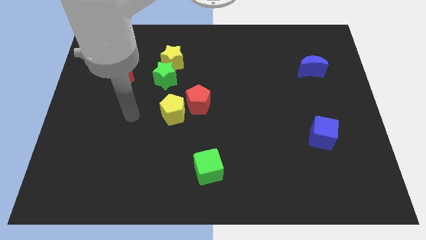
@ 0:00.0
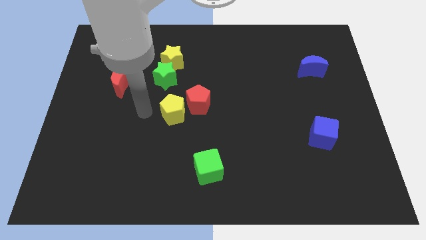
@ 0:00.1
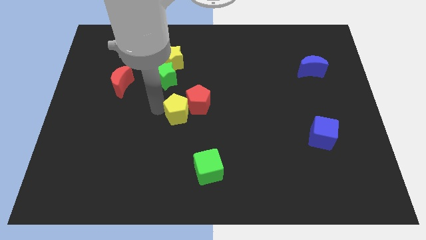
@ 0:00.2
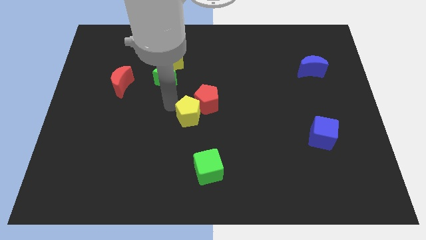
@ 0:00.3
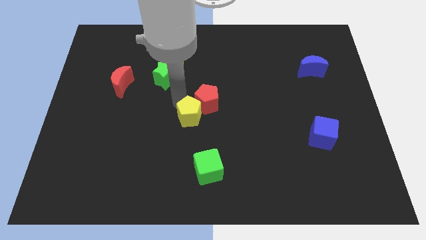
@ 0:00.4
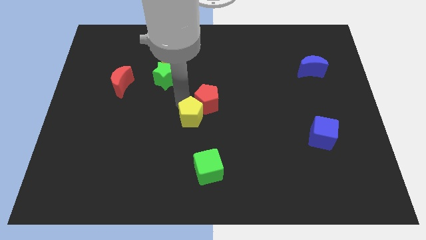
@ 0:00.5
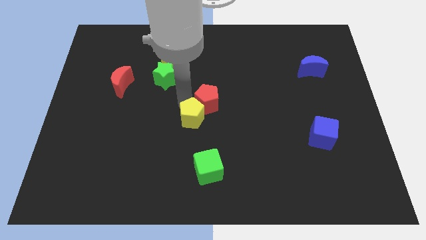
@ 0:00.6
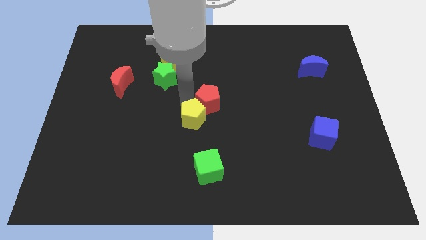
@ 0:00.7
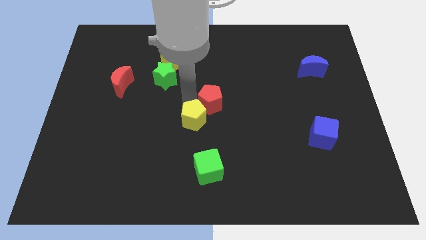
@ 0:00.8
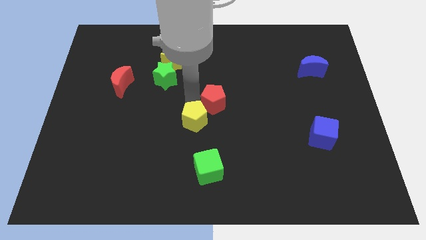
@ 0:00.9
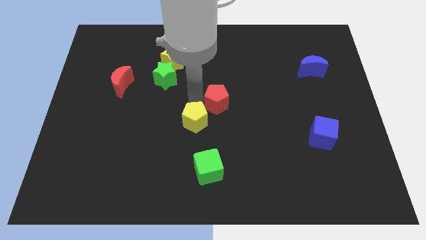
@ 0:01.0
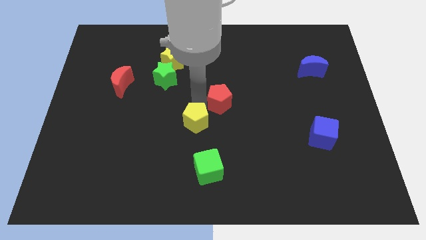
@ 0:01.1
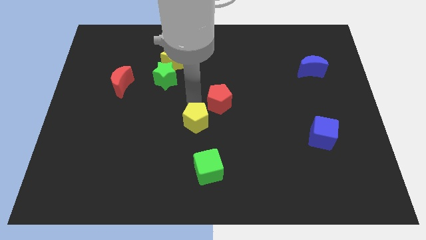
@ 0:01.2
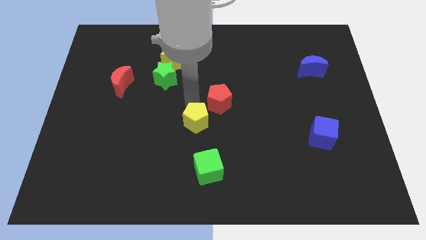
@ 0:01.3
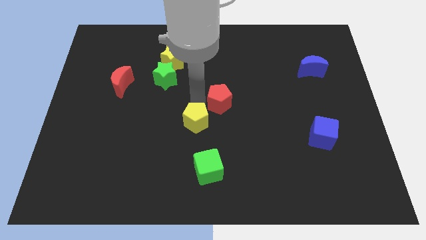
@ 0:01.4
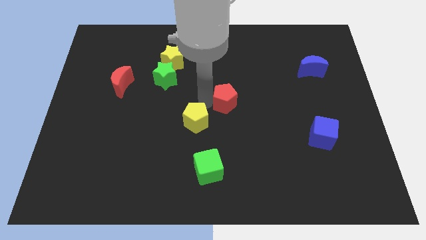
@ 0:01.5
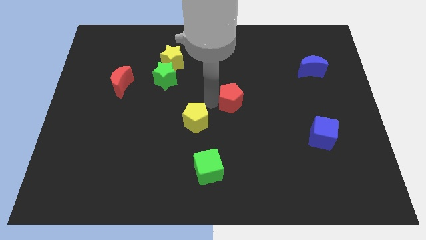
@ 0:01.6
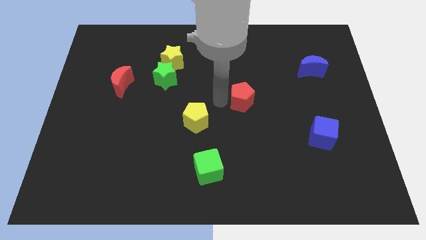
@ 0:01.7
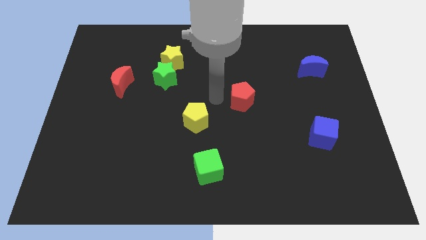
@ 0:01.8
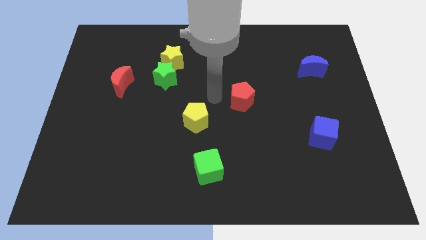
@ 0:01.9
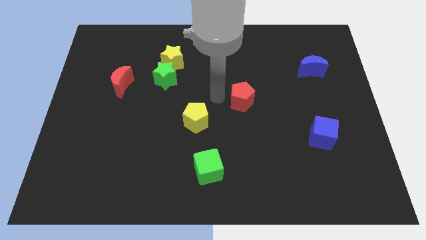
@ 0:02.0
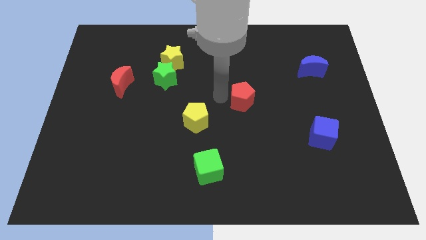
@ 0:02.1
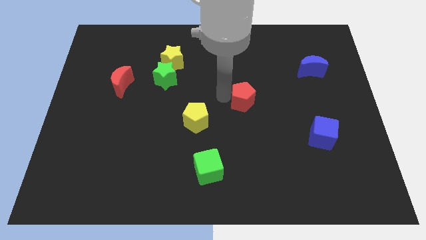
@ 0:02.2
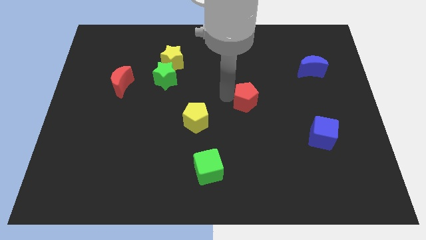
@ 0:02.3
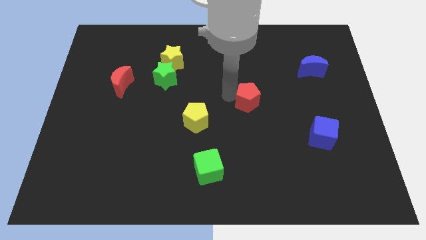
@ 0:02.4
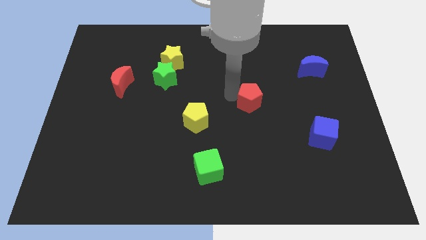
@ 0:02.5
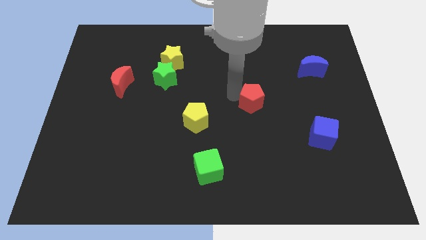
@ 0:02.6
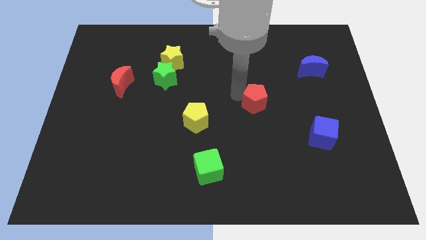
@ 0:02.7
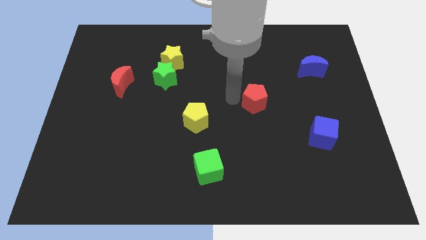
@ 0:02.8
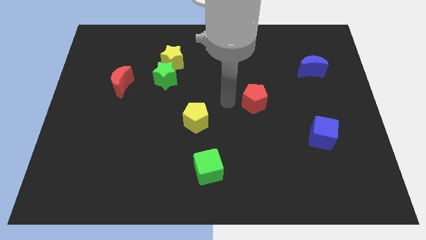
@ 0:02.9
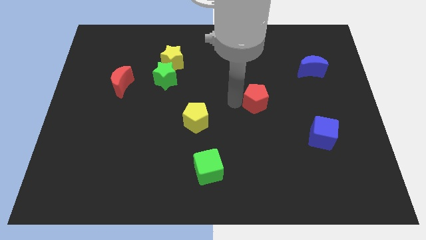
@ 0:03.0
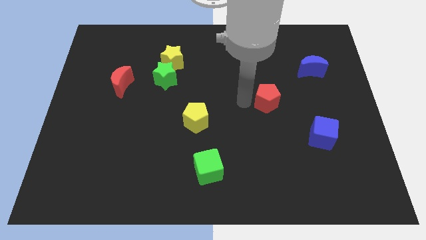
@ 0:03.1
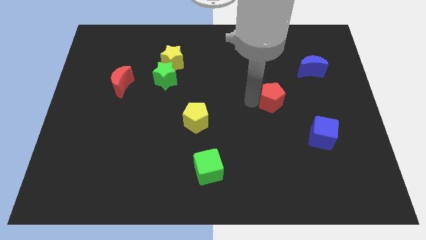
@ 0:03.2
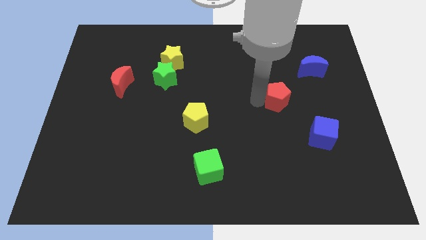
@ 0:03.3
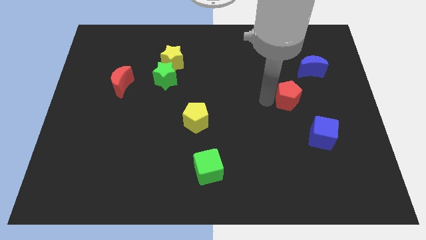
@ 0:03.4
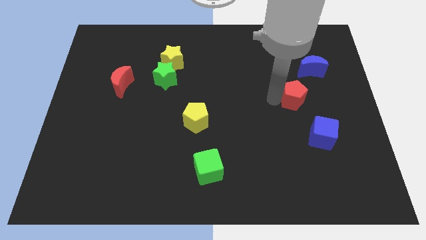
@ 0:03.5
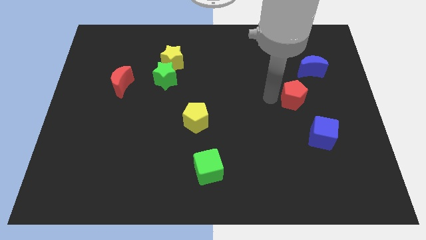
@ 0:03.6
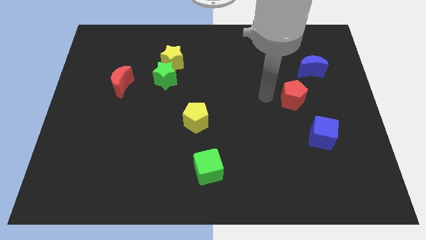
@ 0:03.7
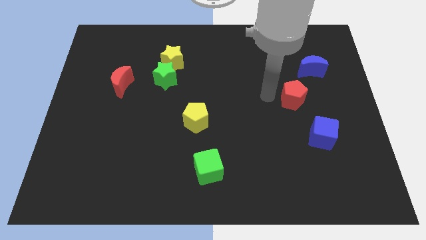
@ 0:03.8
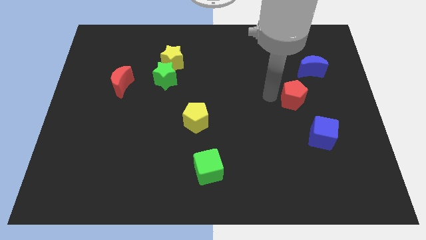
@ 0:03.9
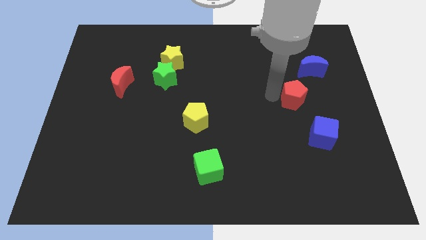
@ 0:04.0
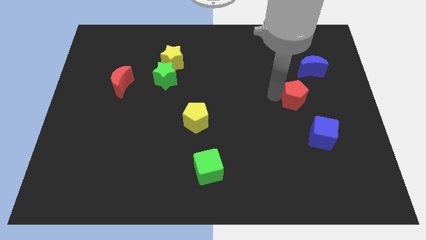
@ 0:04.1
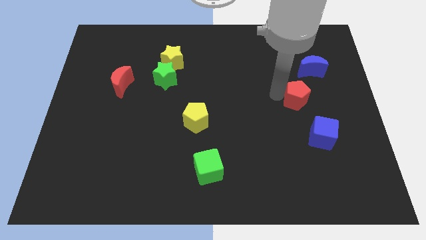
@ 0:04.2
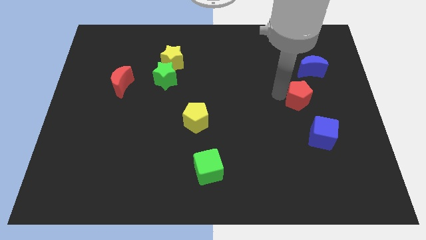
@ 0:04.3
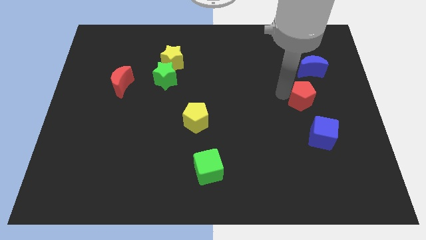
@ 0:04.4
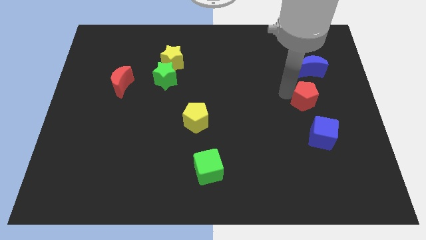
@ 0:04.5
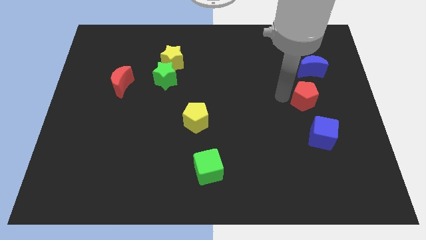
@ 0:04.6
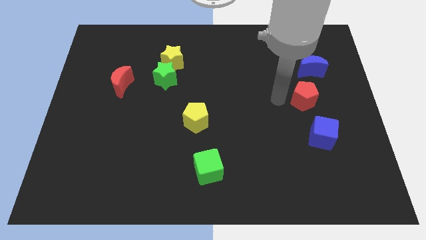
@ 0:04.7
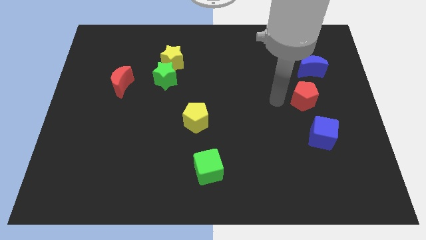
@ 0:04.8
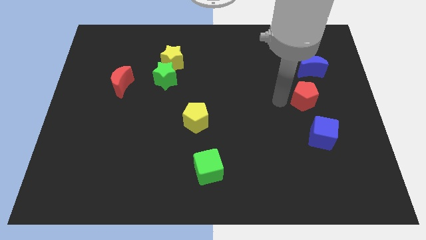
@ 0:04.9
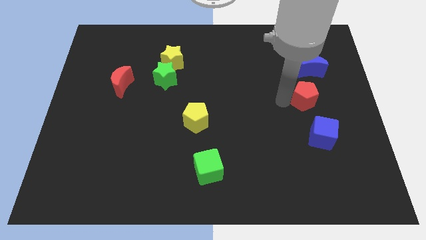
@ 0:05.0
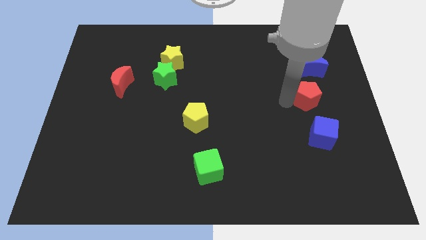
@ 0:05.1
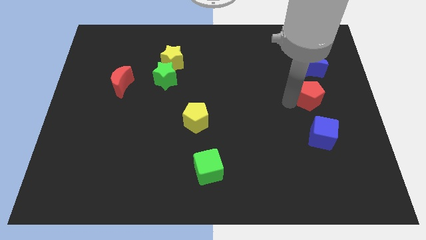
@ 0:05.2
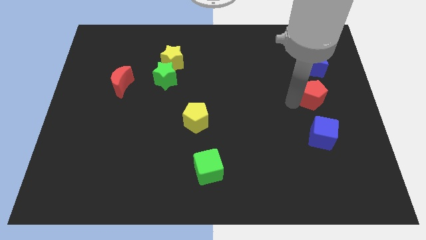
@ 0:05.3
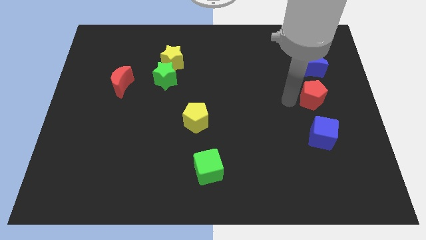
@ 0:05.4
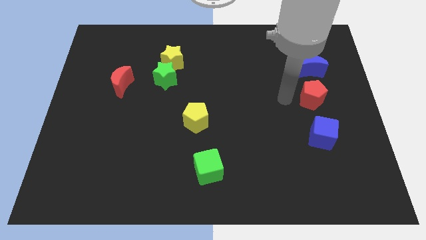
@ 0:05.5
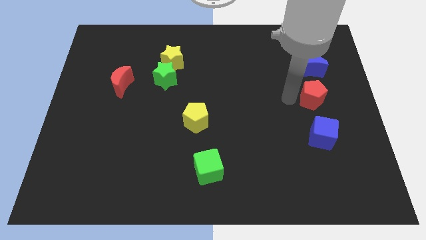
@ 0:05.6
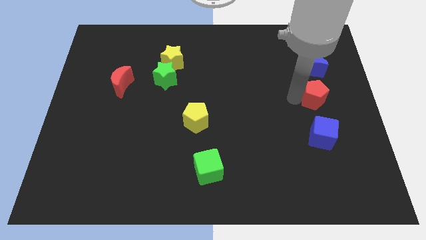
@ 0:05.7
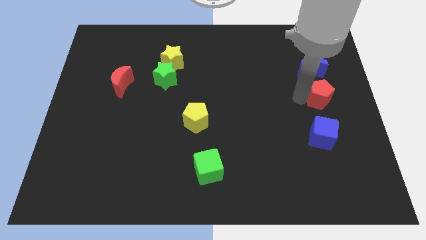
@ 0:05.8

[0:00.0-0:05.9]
put the red pentagon to the right side of the board

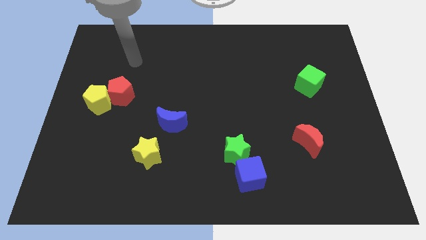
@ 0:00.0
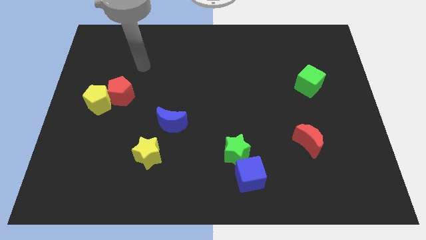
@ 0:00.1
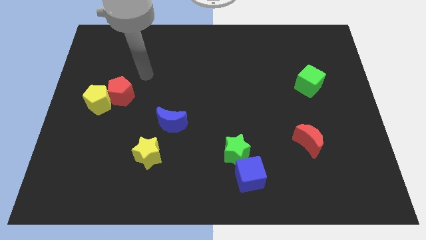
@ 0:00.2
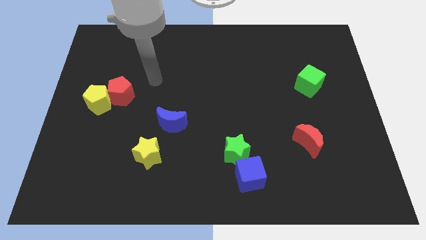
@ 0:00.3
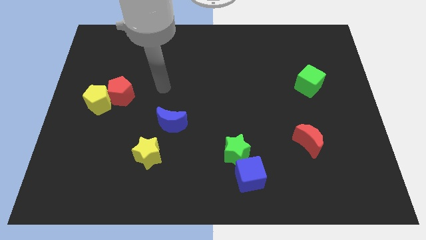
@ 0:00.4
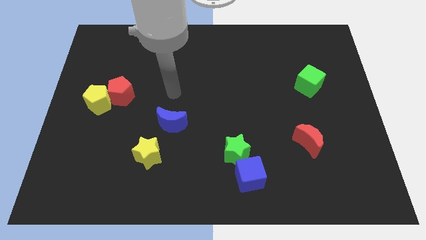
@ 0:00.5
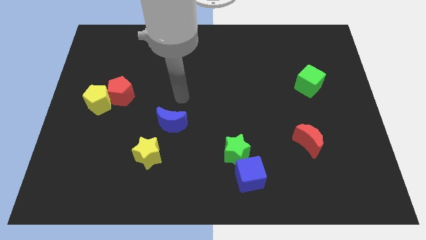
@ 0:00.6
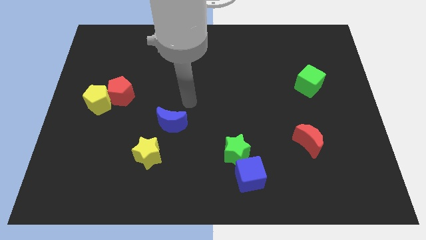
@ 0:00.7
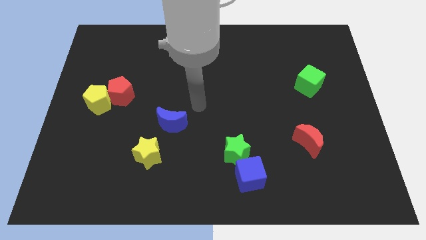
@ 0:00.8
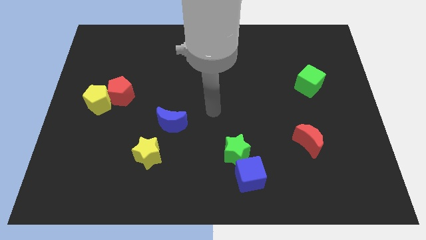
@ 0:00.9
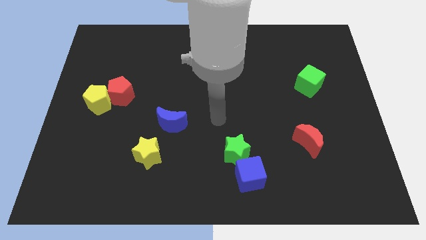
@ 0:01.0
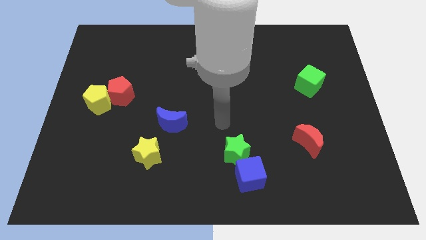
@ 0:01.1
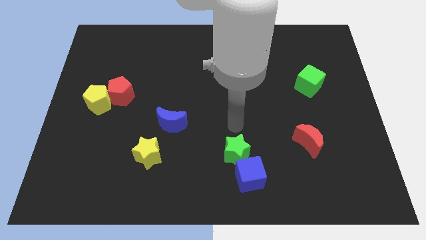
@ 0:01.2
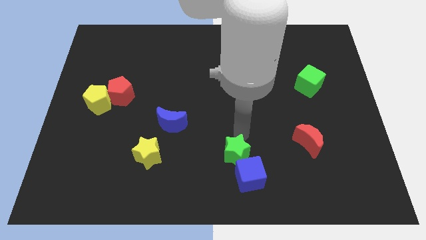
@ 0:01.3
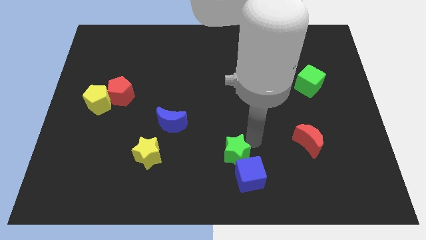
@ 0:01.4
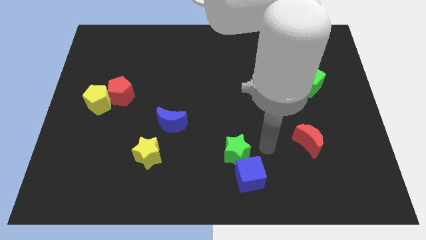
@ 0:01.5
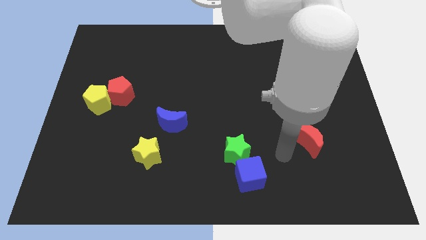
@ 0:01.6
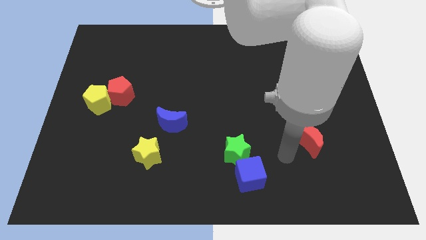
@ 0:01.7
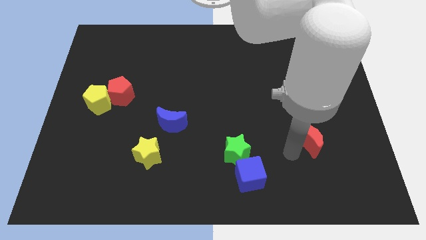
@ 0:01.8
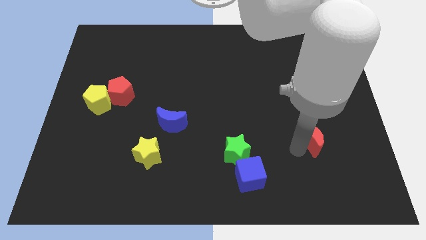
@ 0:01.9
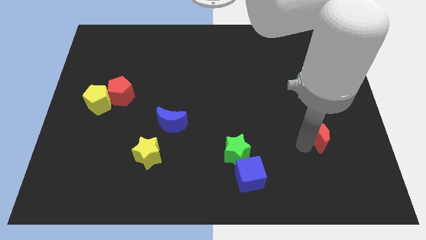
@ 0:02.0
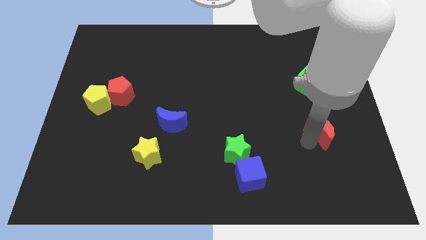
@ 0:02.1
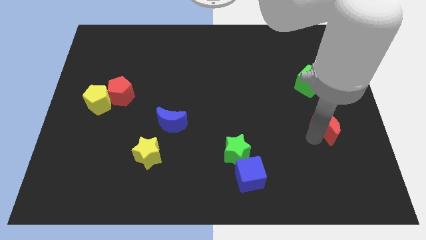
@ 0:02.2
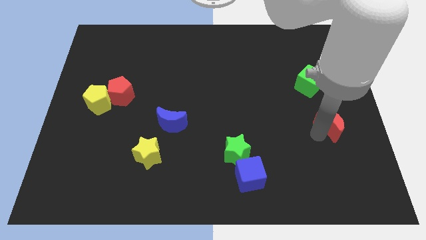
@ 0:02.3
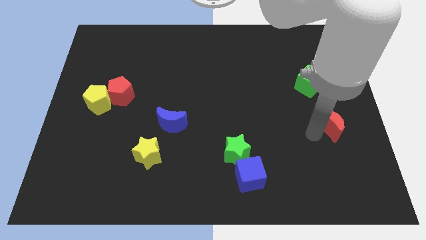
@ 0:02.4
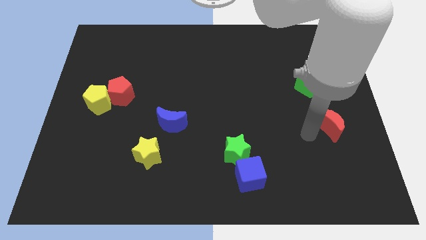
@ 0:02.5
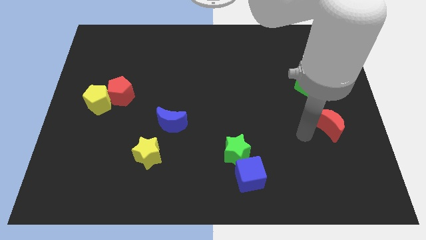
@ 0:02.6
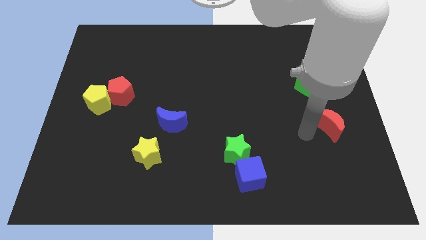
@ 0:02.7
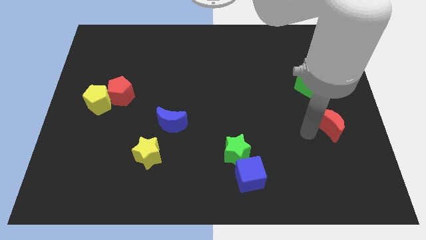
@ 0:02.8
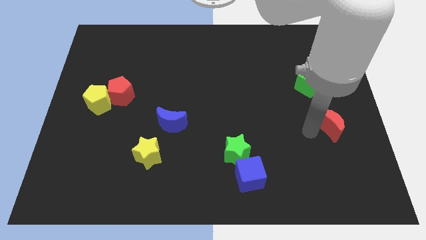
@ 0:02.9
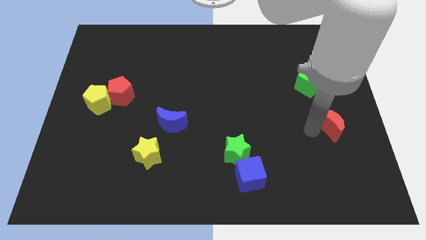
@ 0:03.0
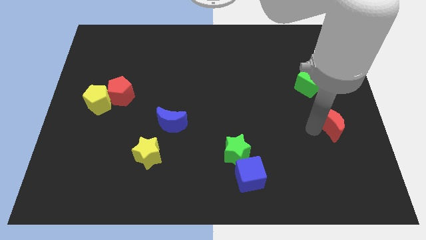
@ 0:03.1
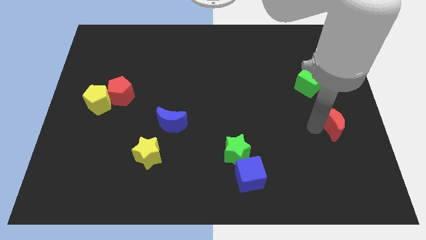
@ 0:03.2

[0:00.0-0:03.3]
slide the red moon to the right side
